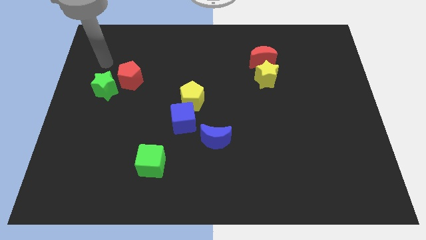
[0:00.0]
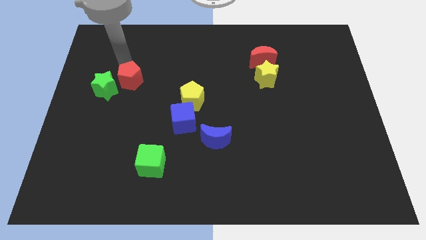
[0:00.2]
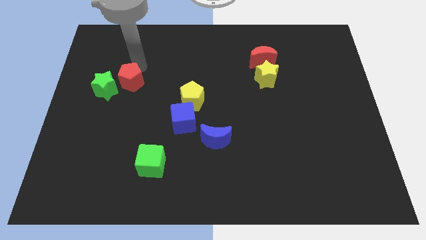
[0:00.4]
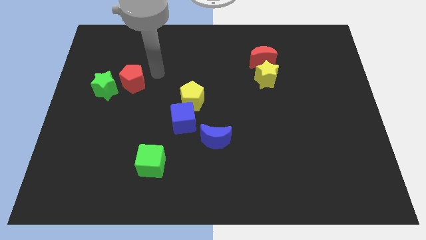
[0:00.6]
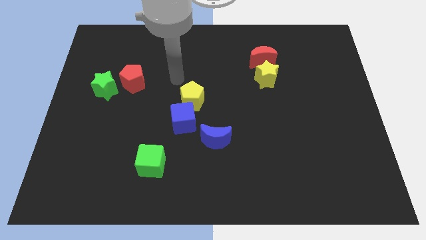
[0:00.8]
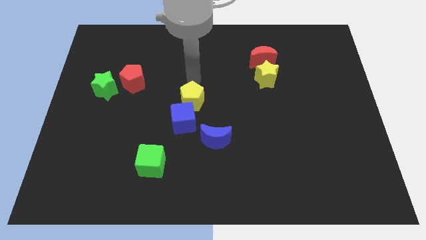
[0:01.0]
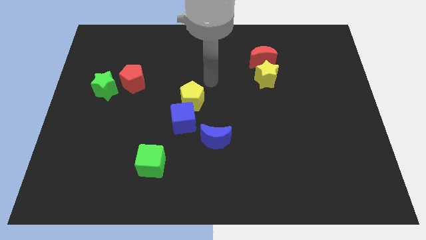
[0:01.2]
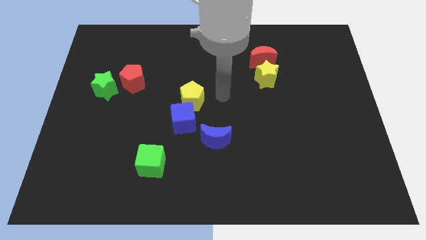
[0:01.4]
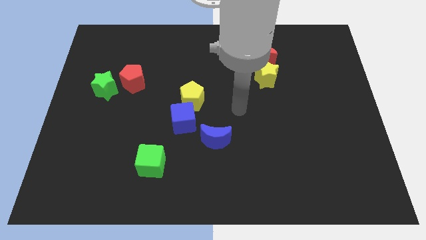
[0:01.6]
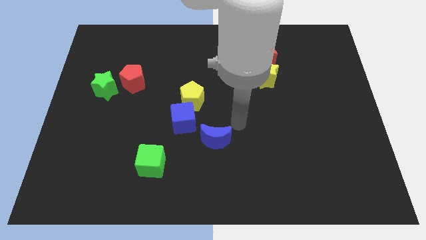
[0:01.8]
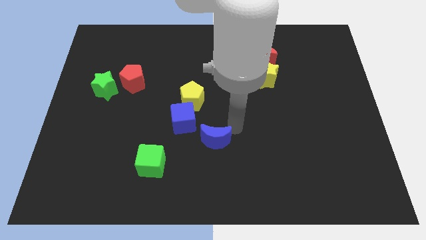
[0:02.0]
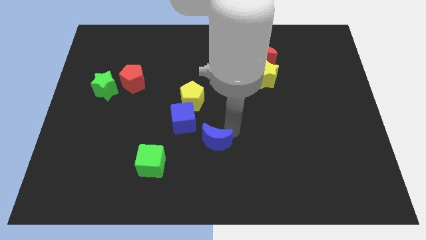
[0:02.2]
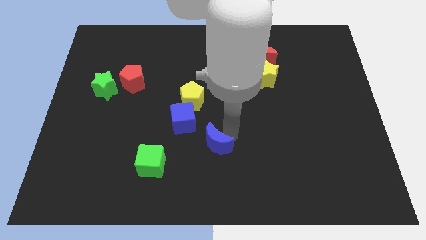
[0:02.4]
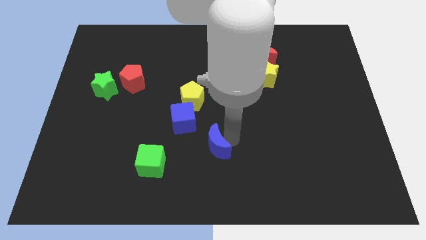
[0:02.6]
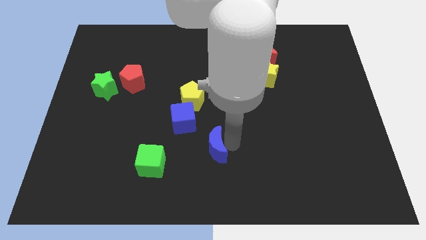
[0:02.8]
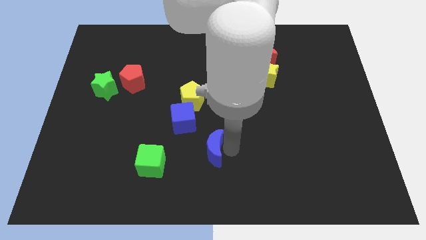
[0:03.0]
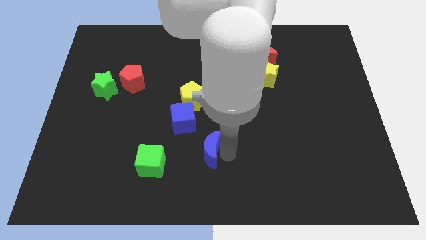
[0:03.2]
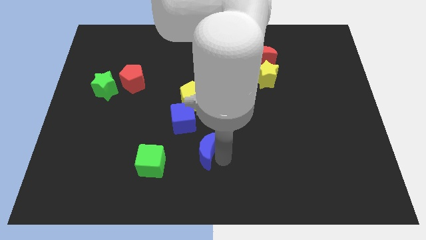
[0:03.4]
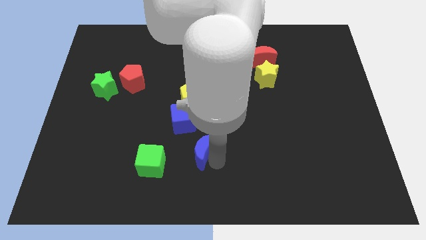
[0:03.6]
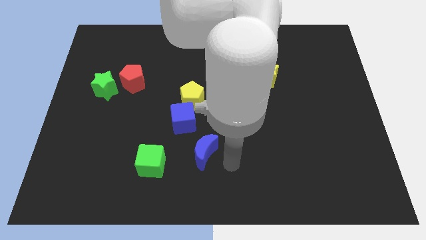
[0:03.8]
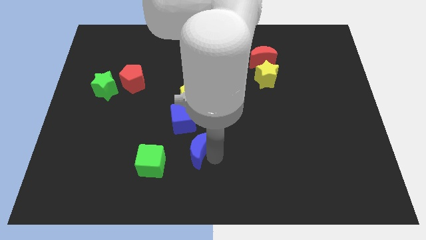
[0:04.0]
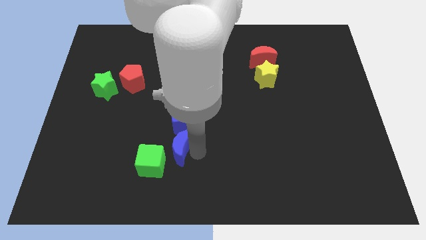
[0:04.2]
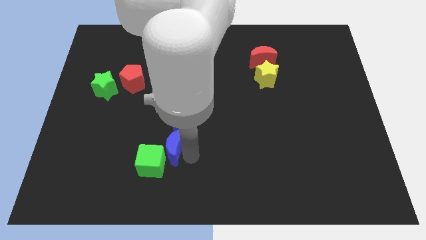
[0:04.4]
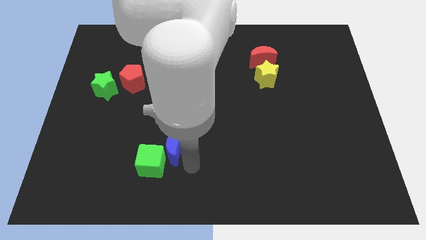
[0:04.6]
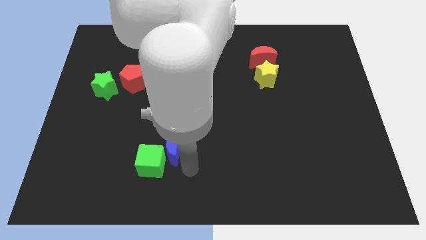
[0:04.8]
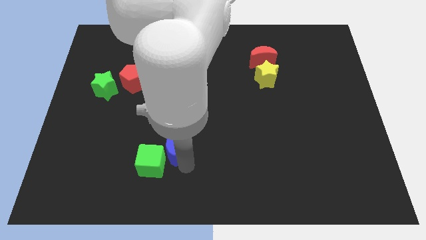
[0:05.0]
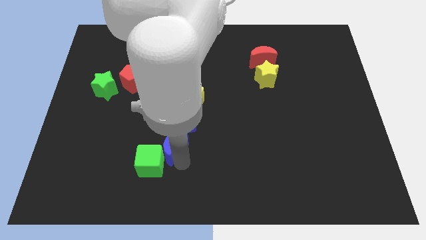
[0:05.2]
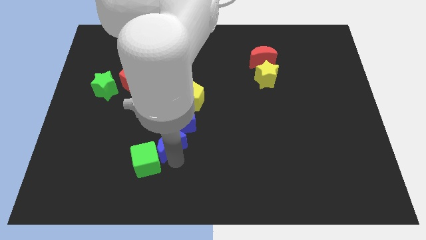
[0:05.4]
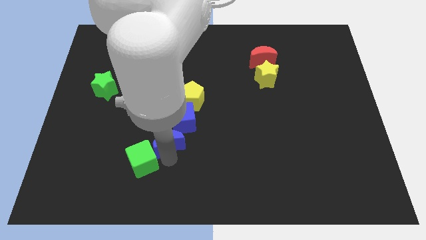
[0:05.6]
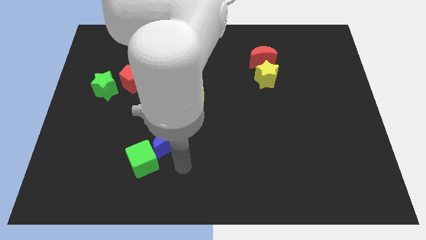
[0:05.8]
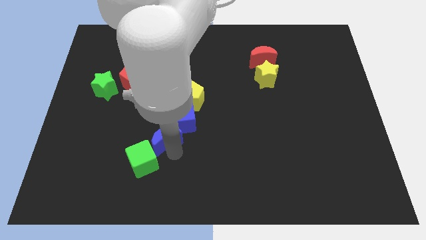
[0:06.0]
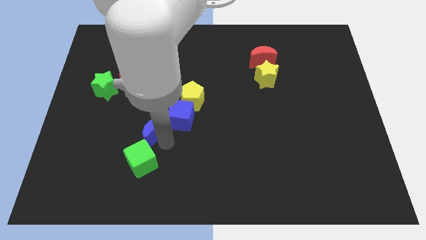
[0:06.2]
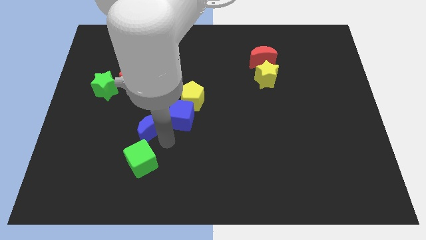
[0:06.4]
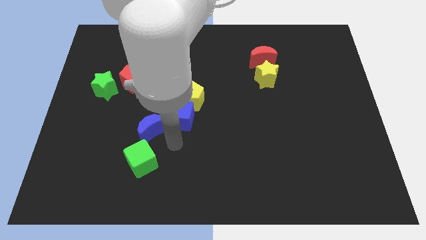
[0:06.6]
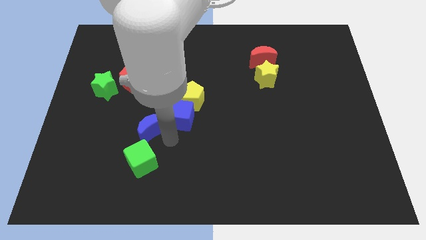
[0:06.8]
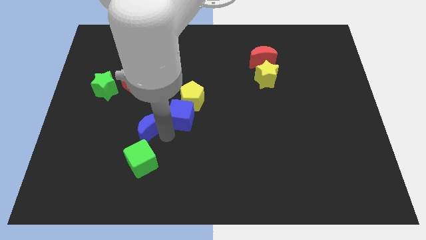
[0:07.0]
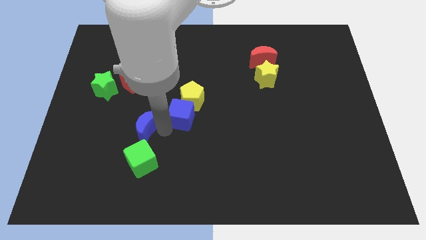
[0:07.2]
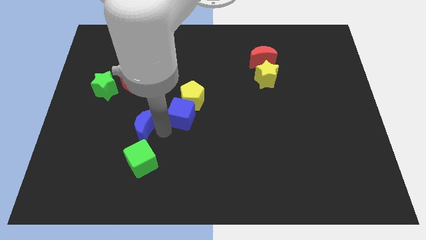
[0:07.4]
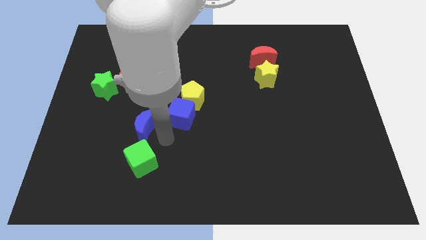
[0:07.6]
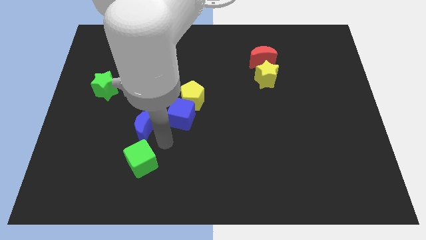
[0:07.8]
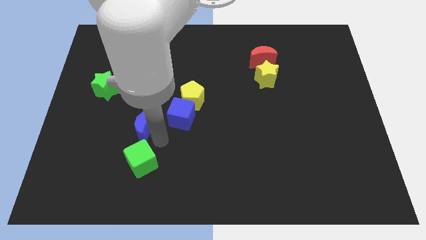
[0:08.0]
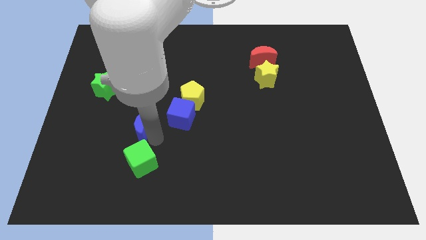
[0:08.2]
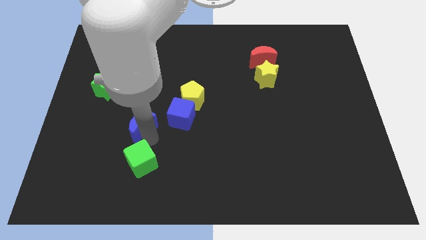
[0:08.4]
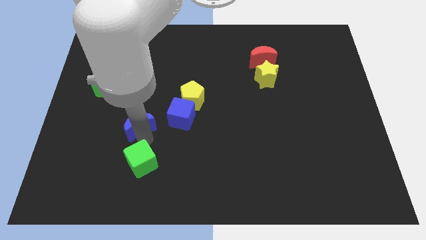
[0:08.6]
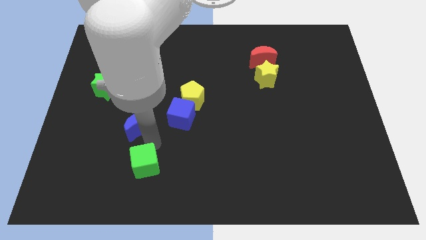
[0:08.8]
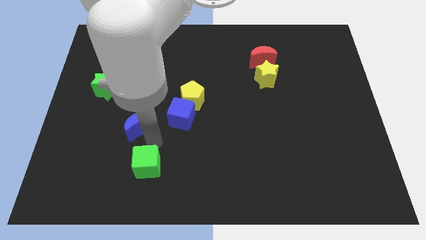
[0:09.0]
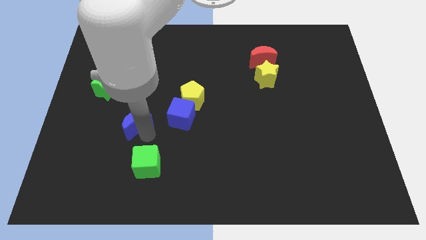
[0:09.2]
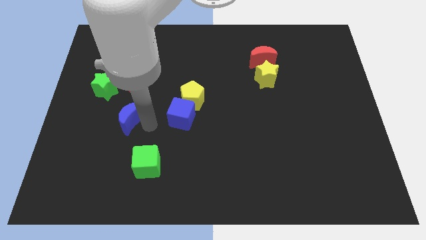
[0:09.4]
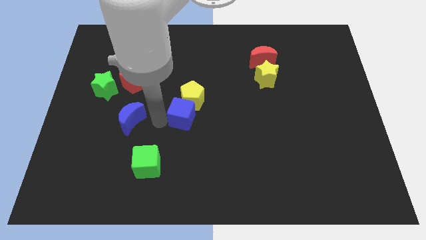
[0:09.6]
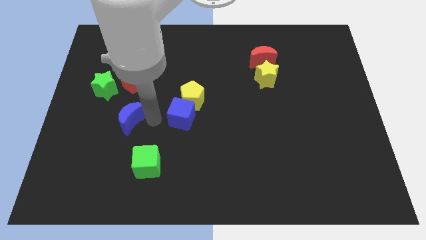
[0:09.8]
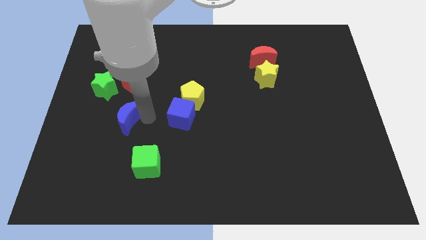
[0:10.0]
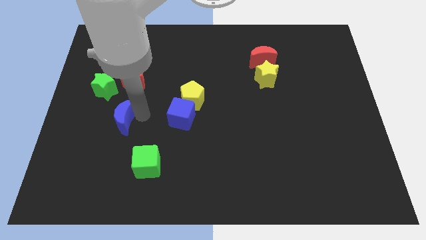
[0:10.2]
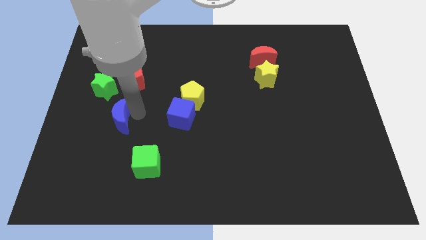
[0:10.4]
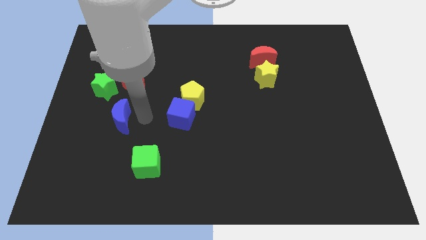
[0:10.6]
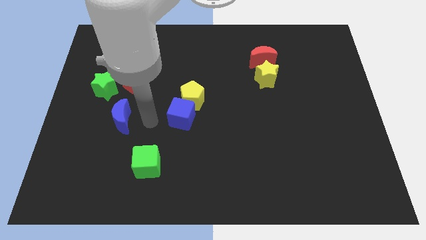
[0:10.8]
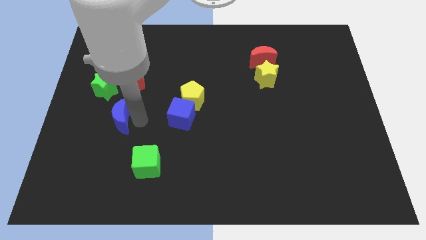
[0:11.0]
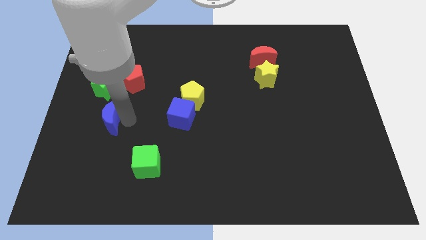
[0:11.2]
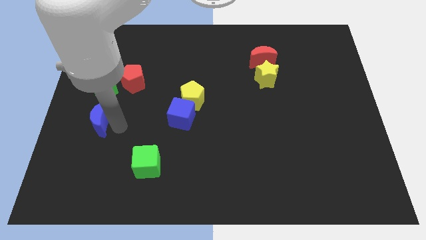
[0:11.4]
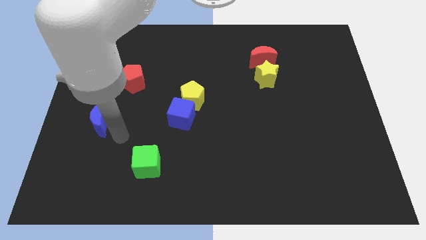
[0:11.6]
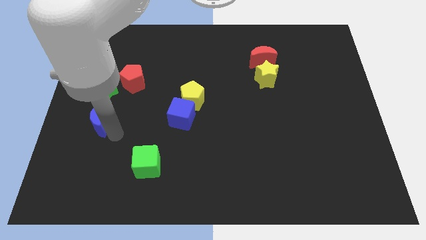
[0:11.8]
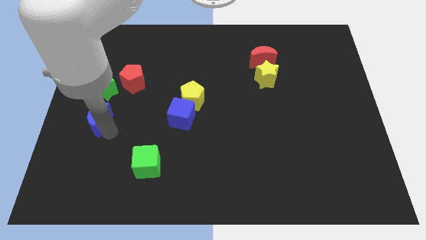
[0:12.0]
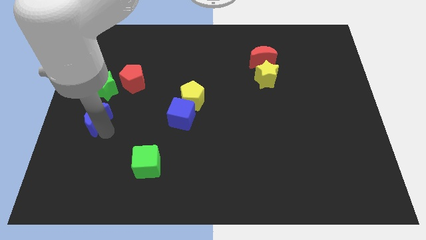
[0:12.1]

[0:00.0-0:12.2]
move the blue moon to the left side of the board

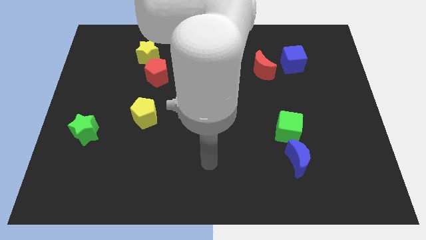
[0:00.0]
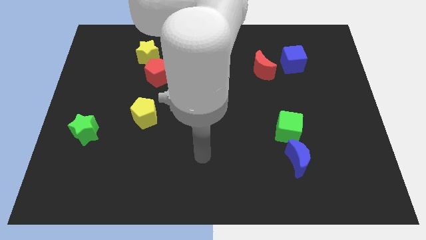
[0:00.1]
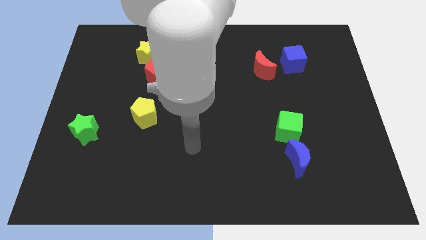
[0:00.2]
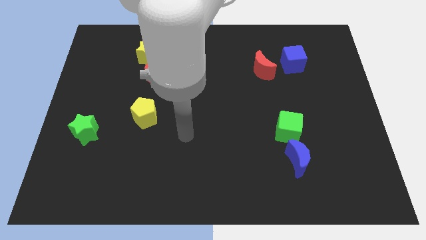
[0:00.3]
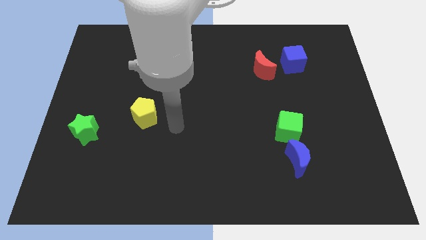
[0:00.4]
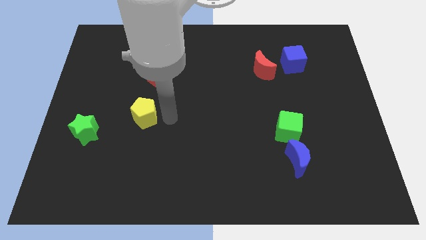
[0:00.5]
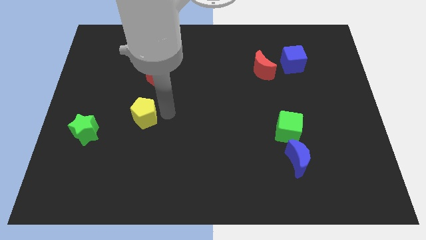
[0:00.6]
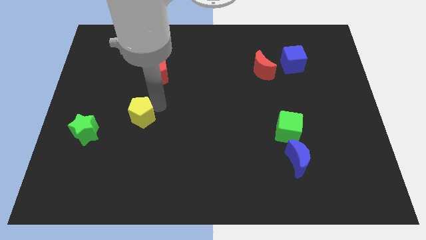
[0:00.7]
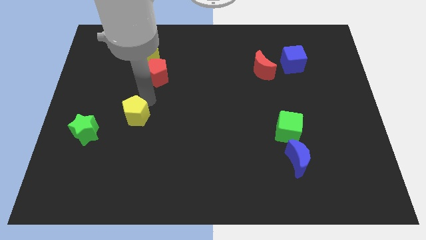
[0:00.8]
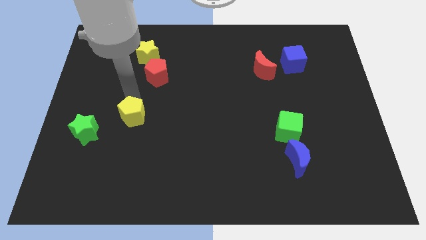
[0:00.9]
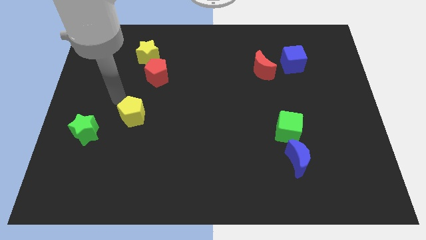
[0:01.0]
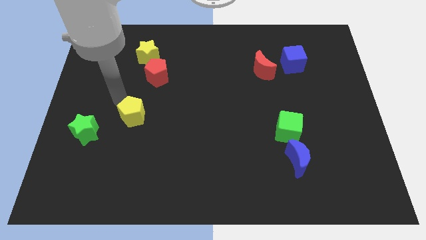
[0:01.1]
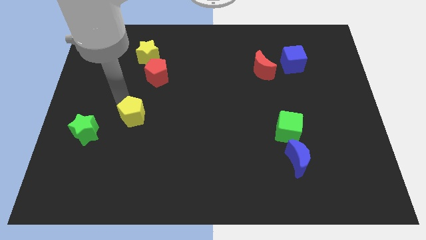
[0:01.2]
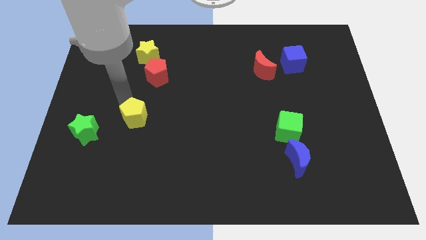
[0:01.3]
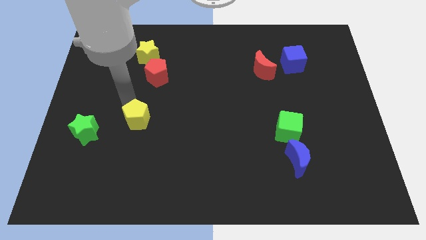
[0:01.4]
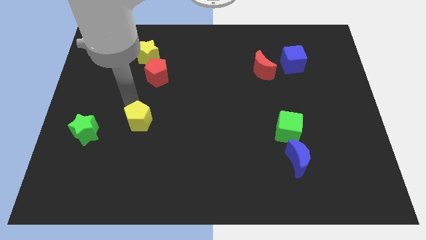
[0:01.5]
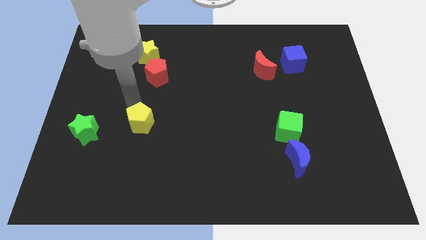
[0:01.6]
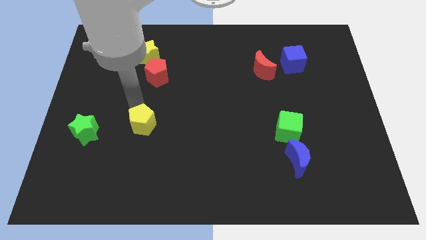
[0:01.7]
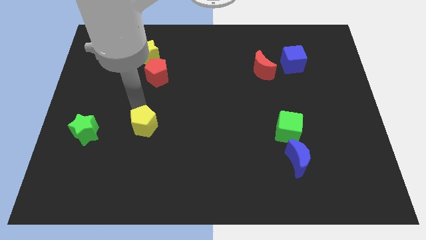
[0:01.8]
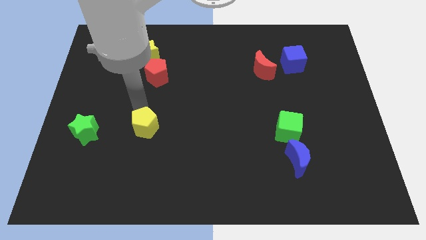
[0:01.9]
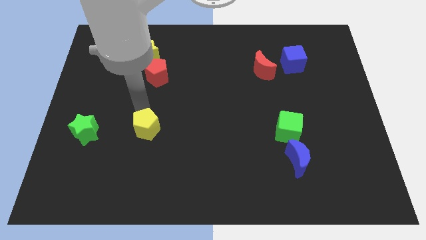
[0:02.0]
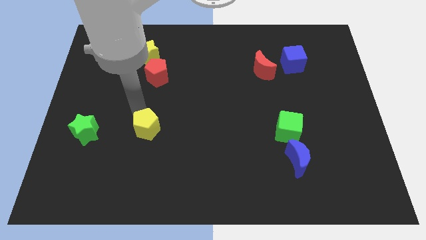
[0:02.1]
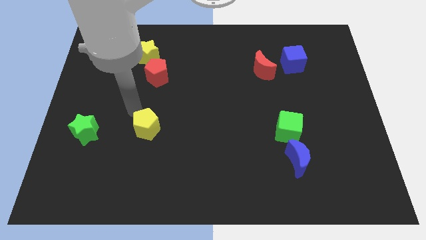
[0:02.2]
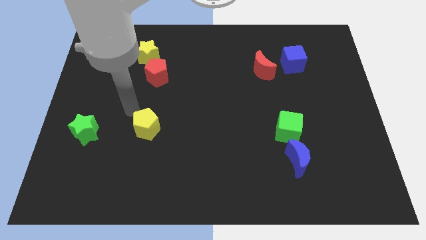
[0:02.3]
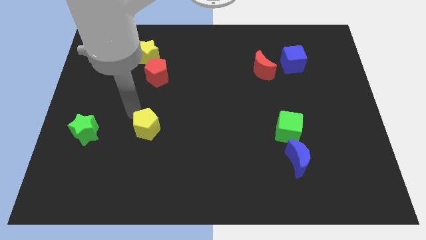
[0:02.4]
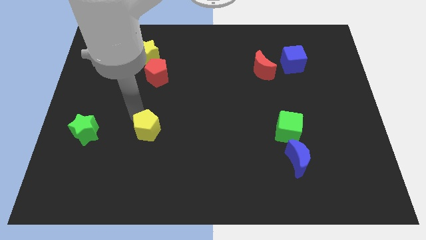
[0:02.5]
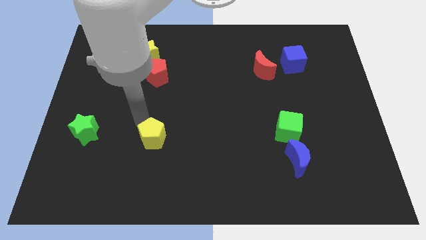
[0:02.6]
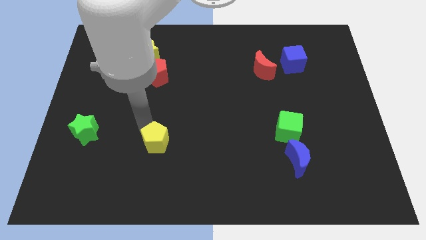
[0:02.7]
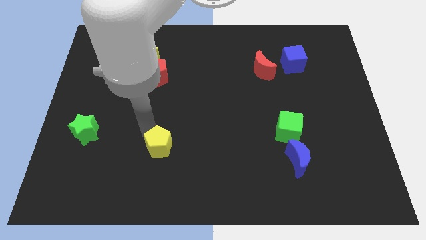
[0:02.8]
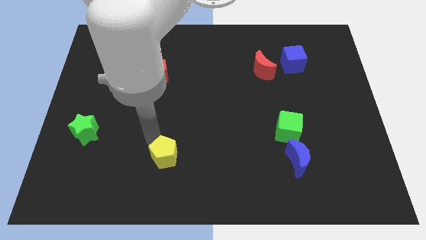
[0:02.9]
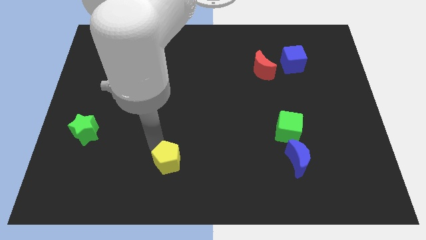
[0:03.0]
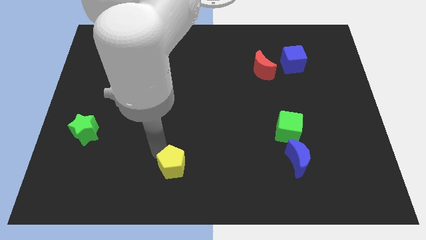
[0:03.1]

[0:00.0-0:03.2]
push the yellow pentagon to the bottom
